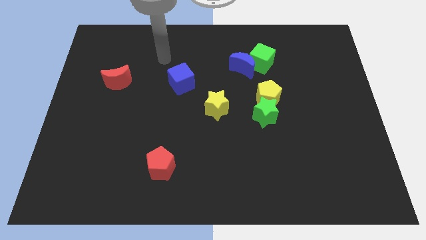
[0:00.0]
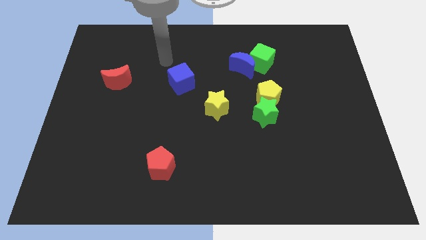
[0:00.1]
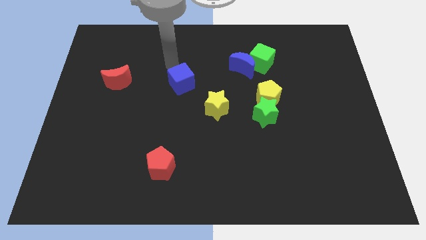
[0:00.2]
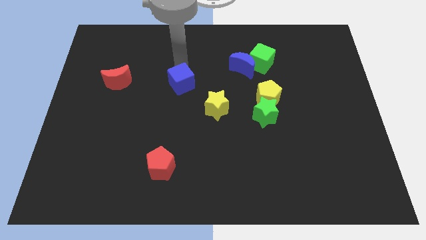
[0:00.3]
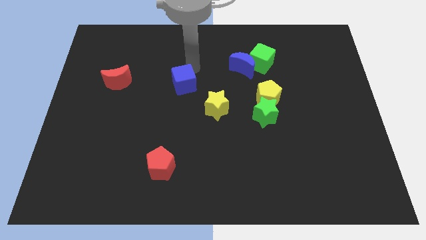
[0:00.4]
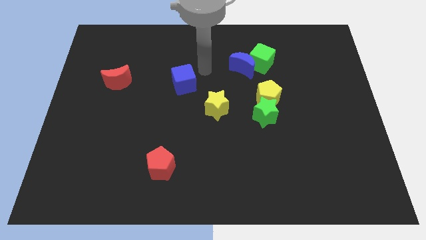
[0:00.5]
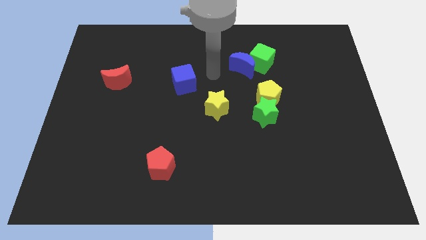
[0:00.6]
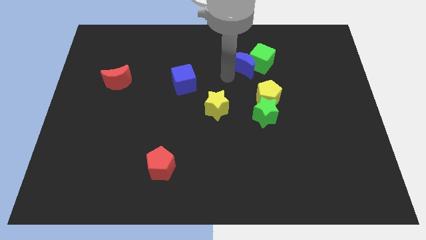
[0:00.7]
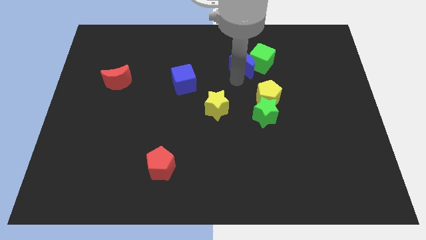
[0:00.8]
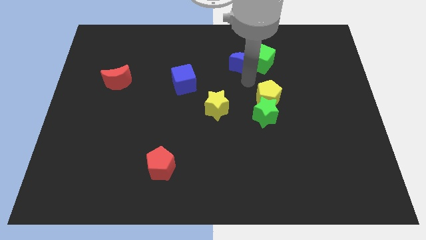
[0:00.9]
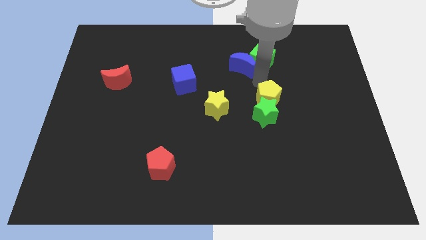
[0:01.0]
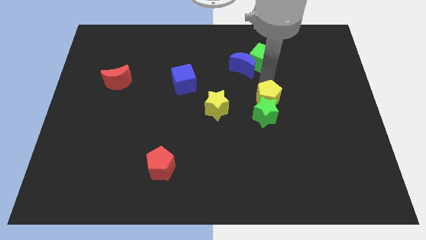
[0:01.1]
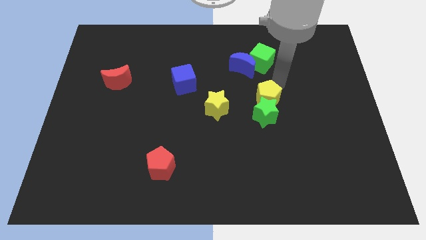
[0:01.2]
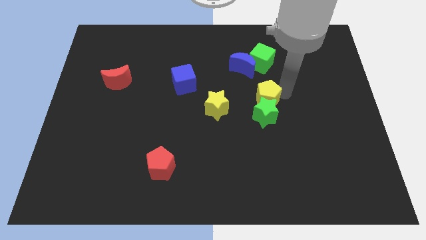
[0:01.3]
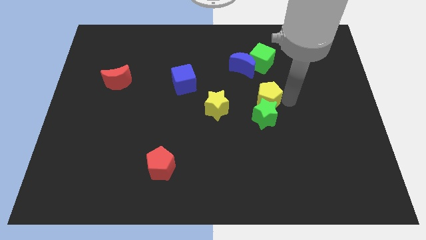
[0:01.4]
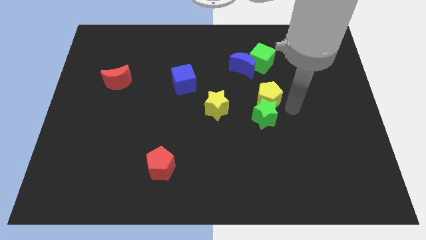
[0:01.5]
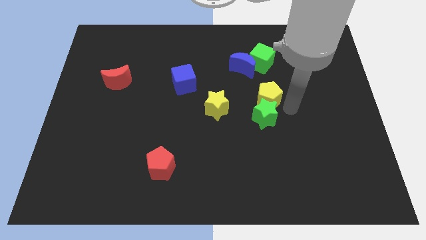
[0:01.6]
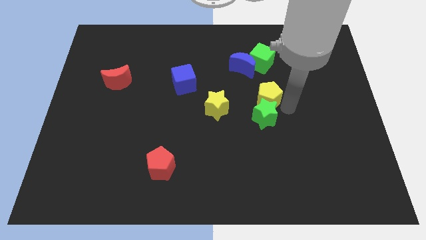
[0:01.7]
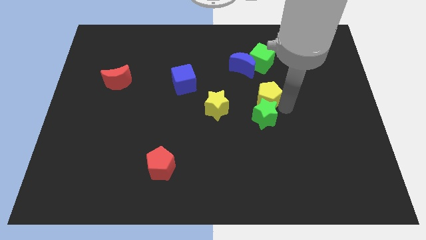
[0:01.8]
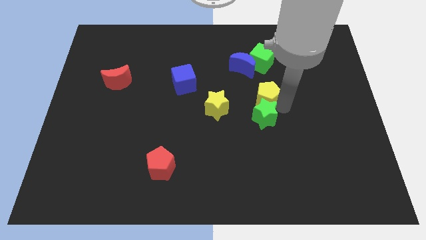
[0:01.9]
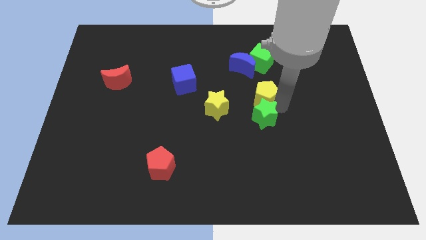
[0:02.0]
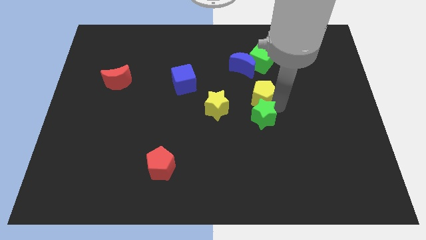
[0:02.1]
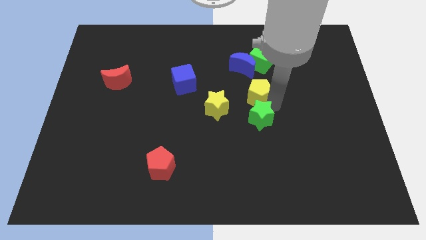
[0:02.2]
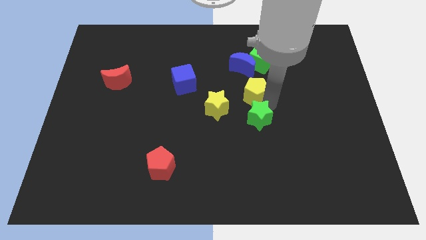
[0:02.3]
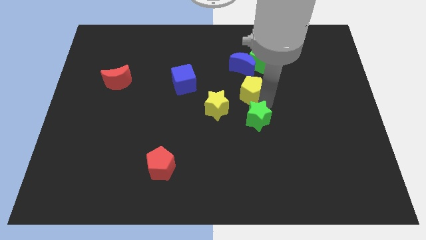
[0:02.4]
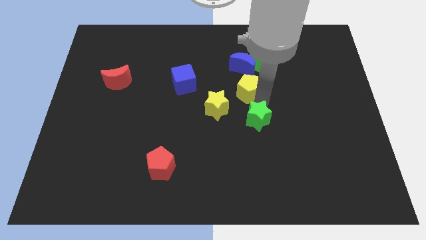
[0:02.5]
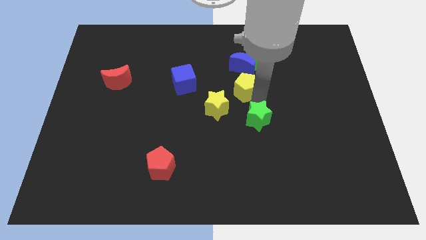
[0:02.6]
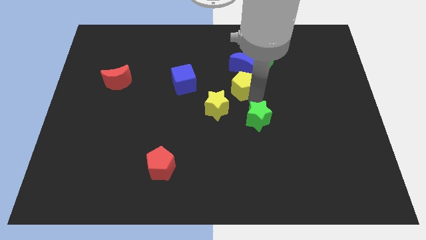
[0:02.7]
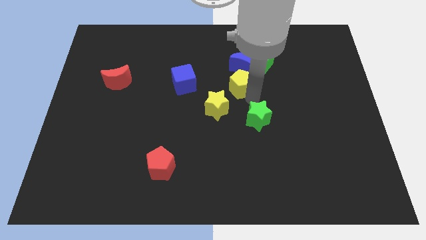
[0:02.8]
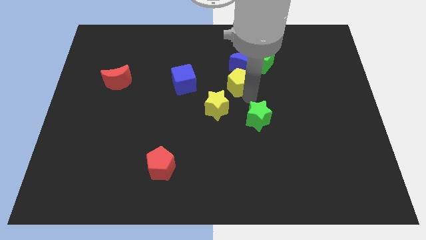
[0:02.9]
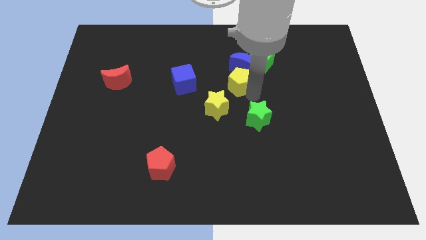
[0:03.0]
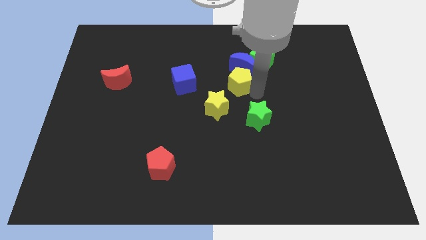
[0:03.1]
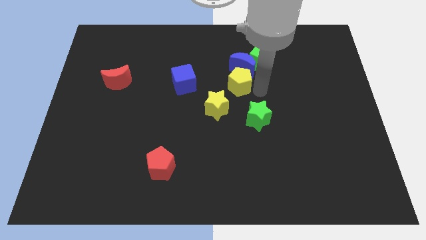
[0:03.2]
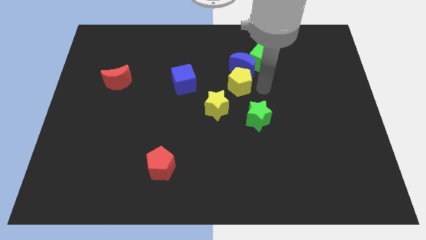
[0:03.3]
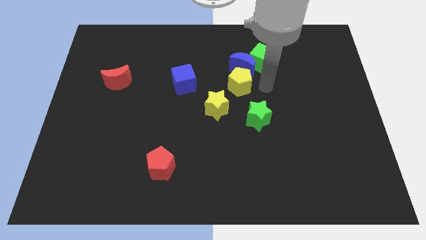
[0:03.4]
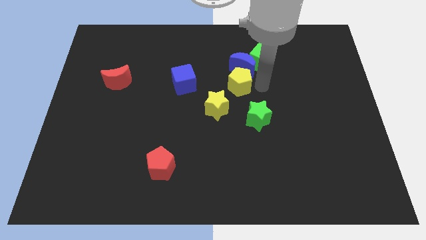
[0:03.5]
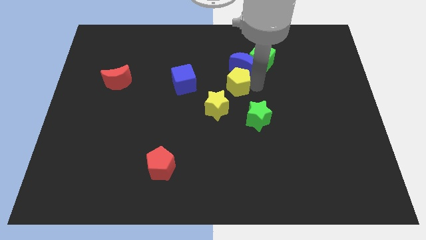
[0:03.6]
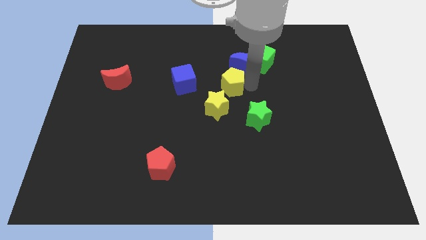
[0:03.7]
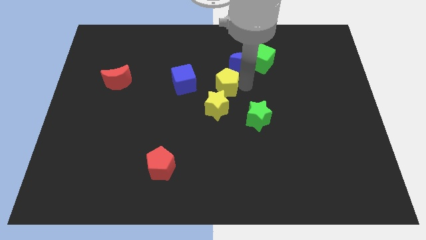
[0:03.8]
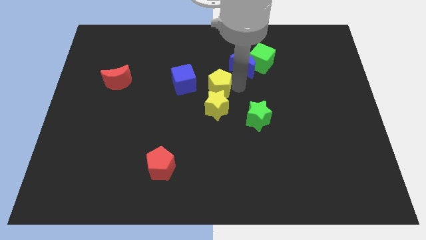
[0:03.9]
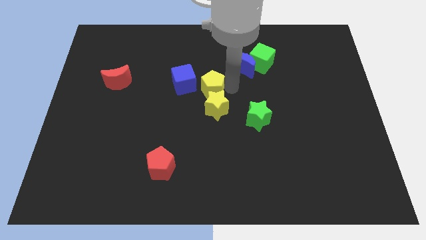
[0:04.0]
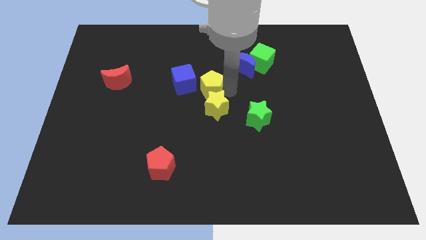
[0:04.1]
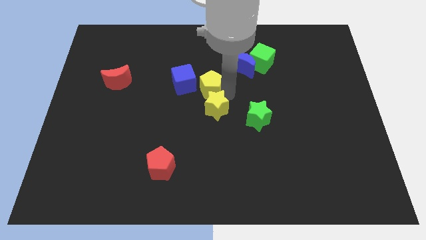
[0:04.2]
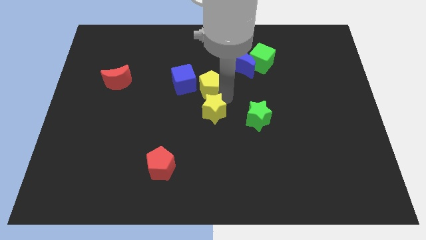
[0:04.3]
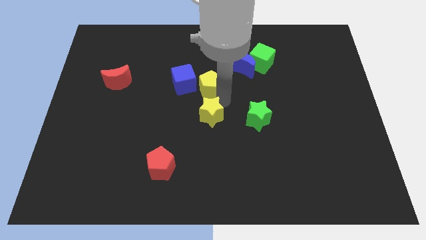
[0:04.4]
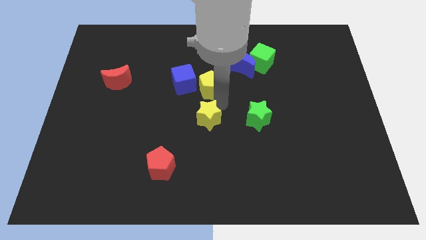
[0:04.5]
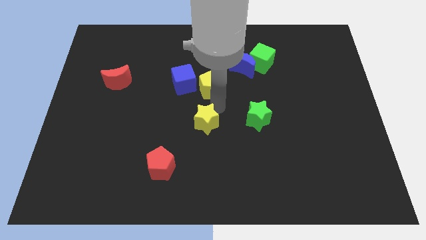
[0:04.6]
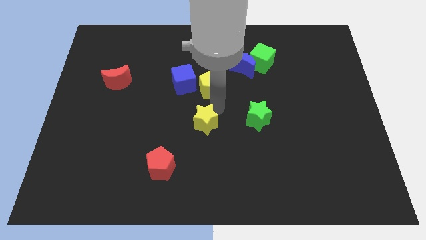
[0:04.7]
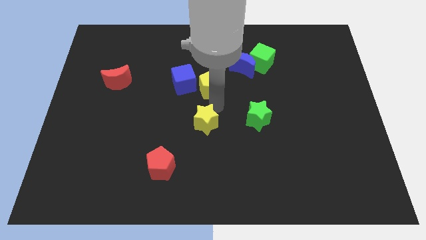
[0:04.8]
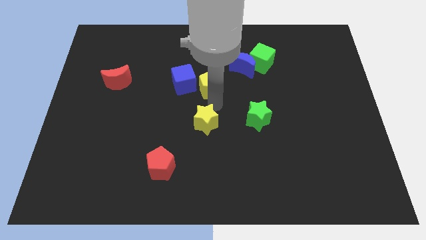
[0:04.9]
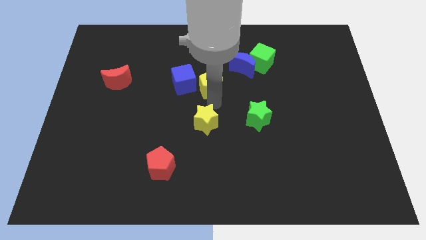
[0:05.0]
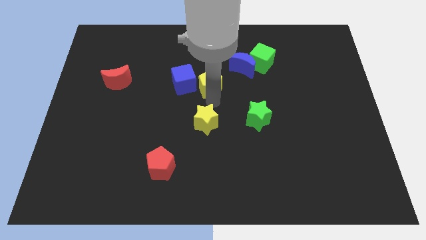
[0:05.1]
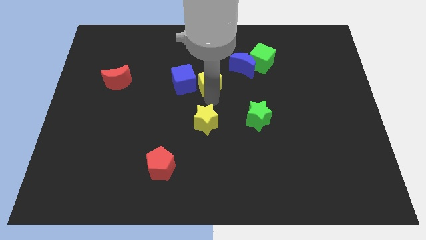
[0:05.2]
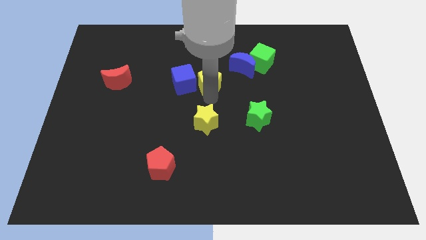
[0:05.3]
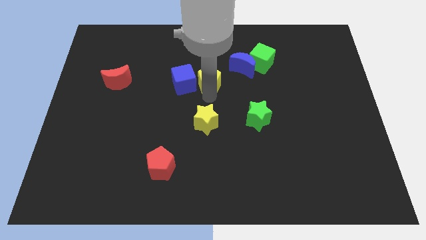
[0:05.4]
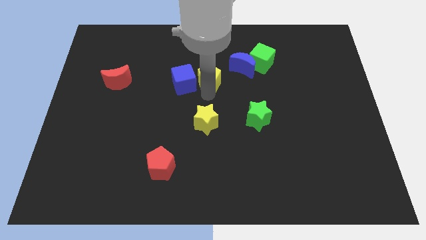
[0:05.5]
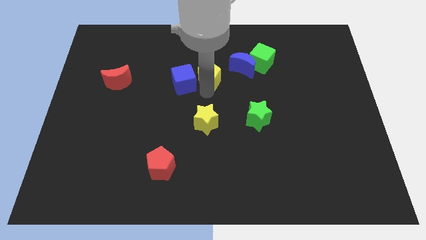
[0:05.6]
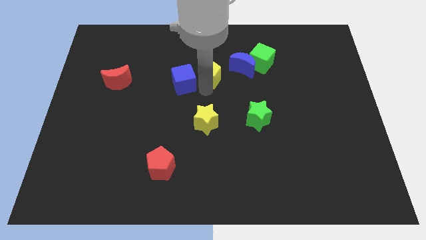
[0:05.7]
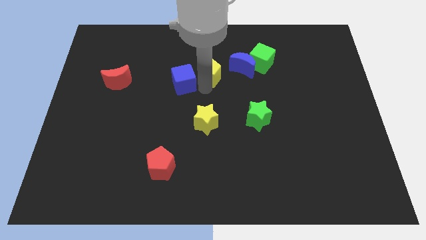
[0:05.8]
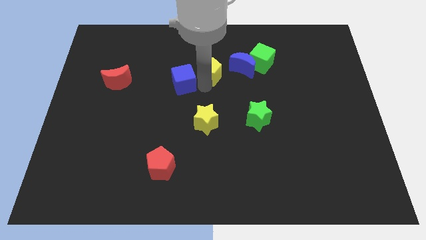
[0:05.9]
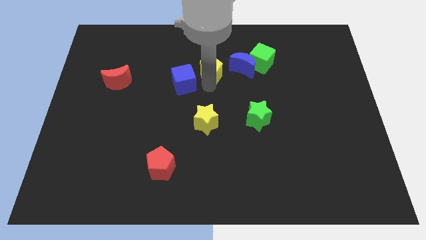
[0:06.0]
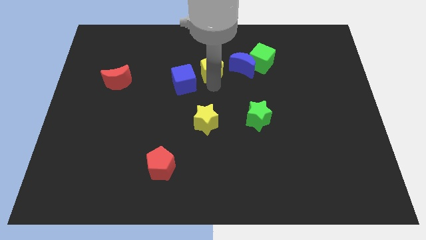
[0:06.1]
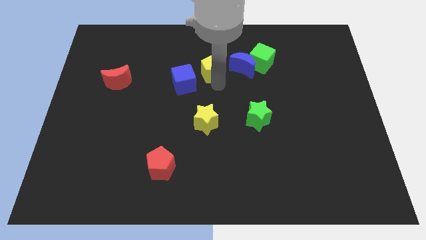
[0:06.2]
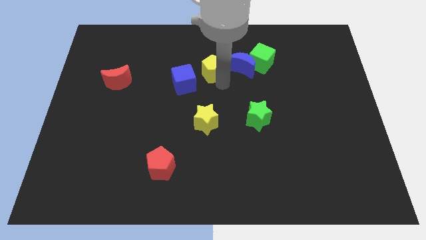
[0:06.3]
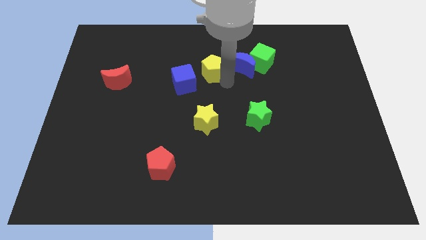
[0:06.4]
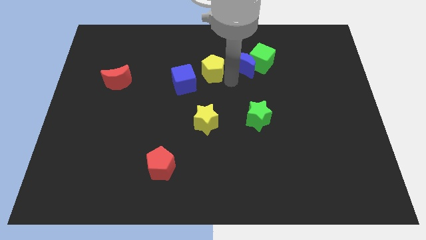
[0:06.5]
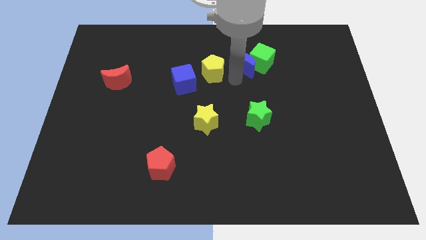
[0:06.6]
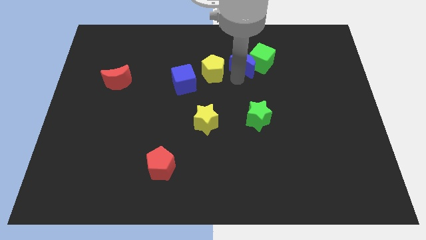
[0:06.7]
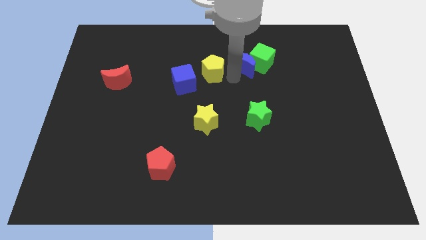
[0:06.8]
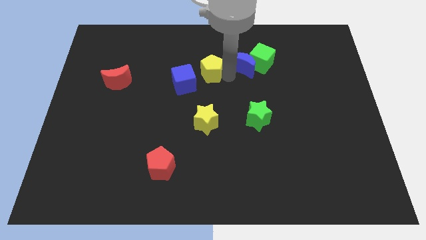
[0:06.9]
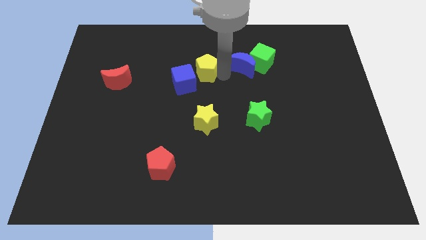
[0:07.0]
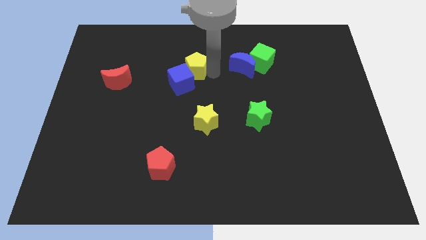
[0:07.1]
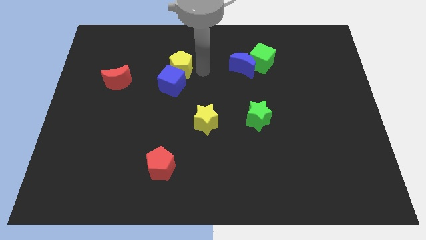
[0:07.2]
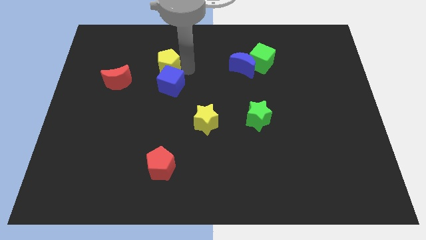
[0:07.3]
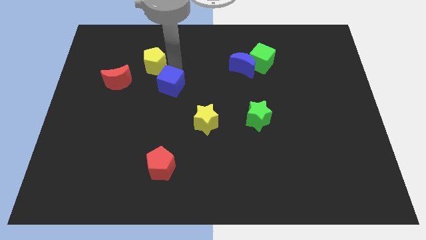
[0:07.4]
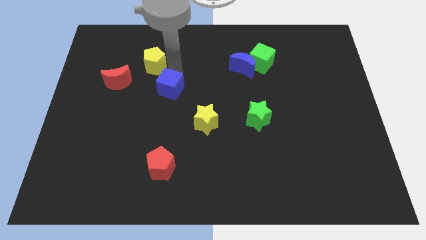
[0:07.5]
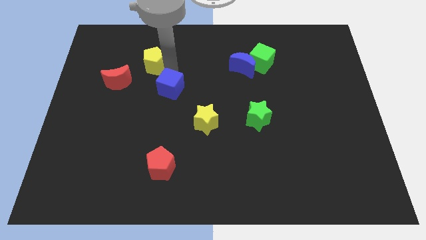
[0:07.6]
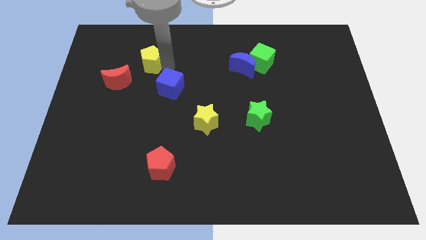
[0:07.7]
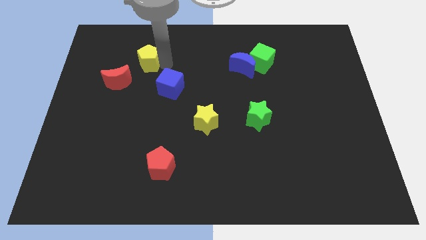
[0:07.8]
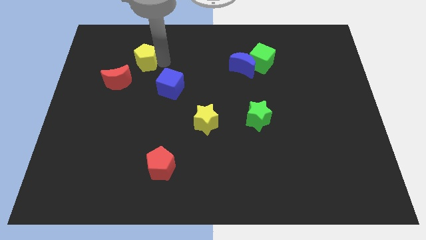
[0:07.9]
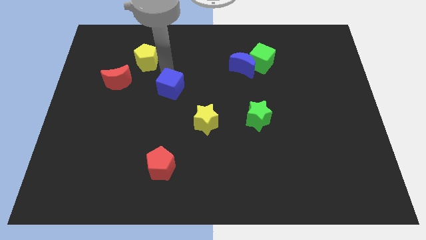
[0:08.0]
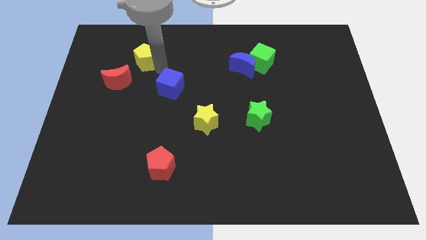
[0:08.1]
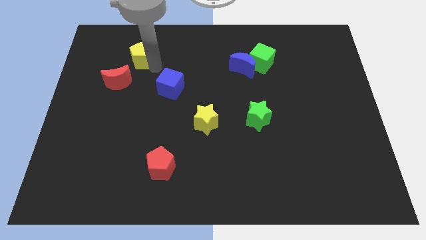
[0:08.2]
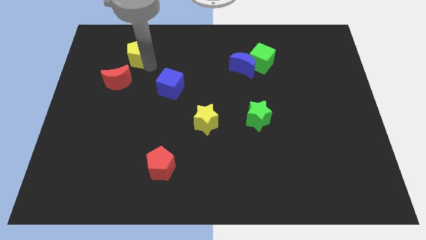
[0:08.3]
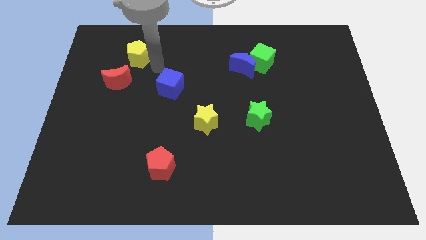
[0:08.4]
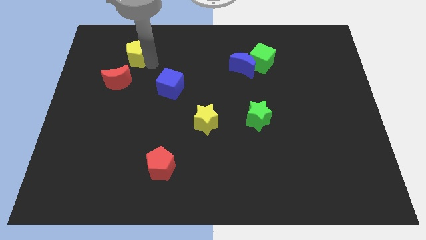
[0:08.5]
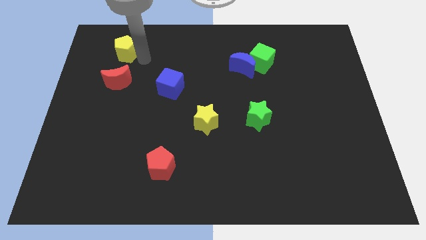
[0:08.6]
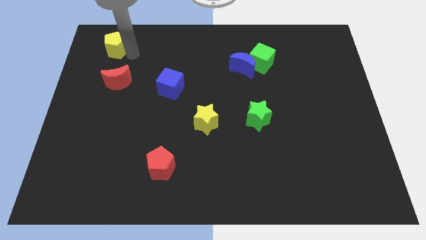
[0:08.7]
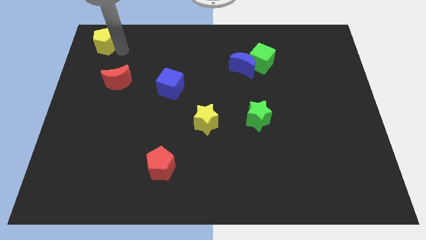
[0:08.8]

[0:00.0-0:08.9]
move the yellow pentagon to the top left of the board
